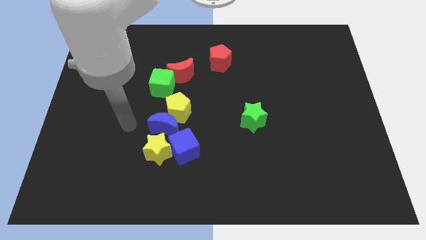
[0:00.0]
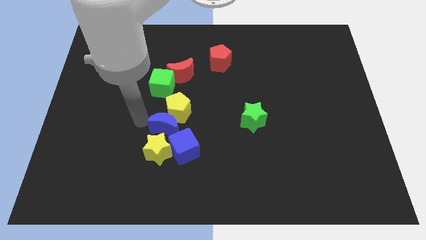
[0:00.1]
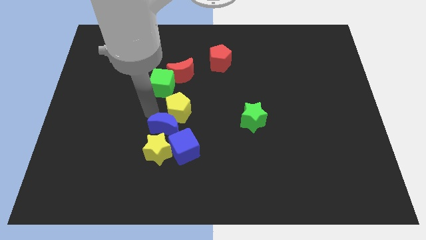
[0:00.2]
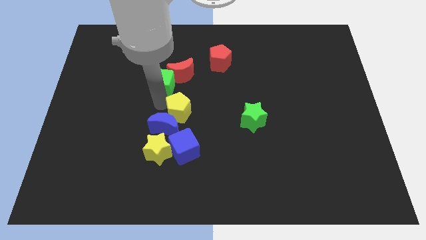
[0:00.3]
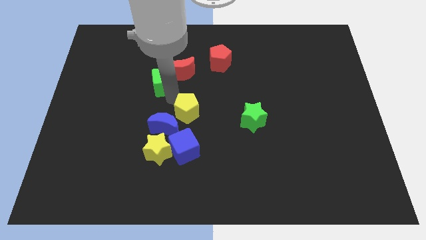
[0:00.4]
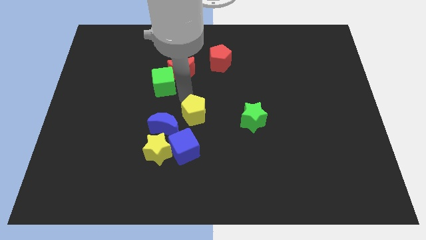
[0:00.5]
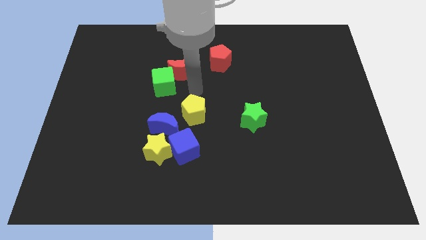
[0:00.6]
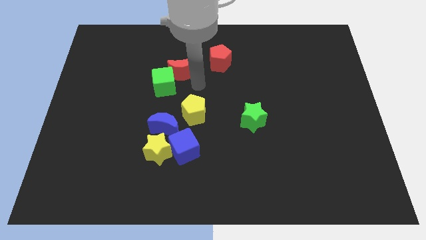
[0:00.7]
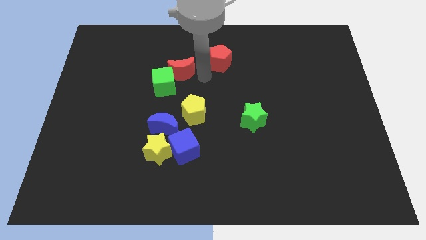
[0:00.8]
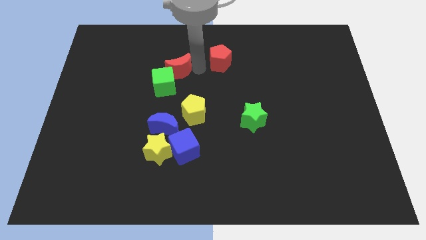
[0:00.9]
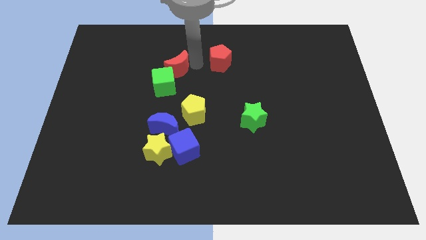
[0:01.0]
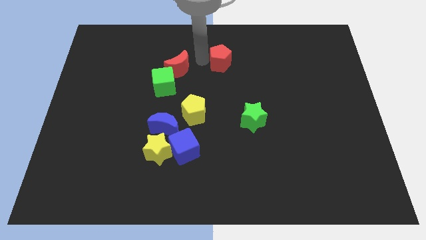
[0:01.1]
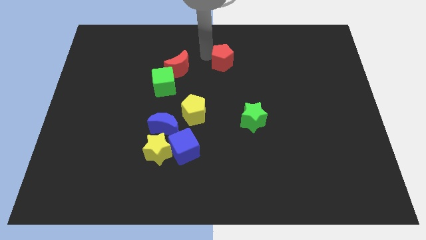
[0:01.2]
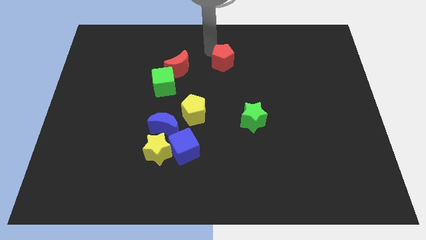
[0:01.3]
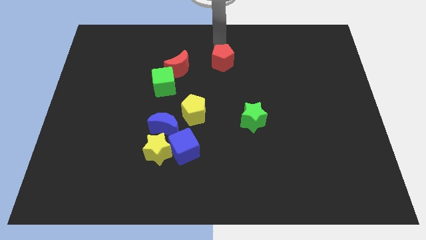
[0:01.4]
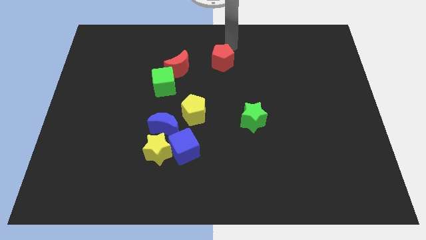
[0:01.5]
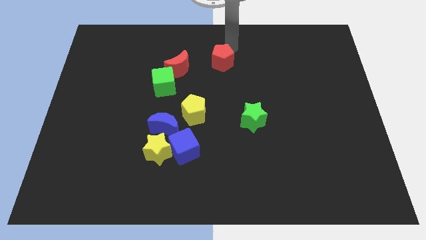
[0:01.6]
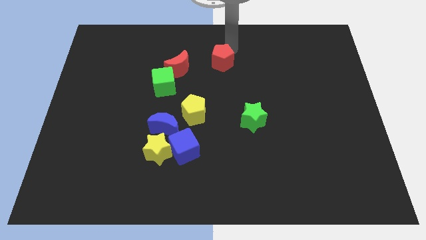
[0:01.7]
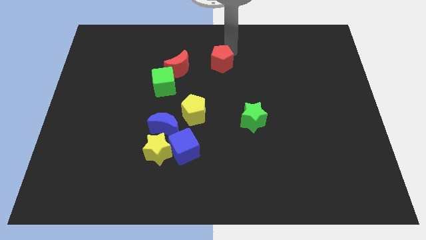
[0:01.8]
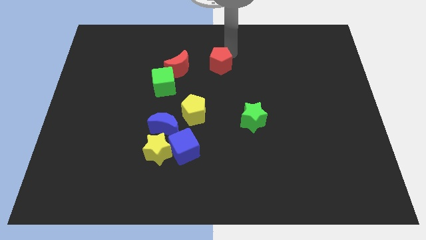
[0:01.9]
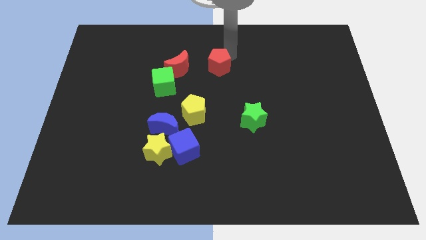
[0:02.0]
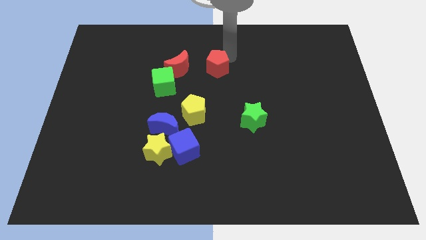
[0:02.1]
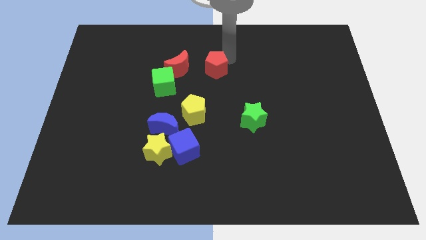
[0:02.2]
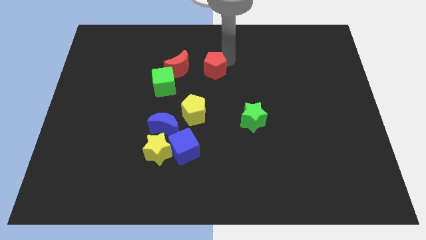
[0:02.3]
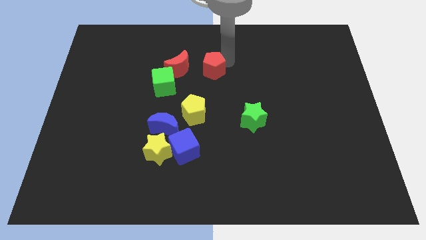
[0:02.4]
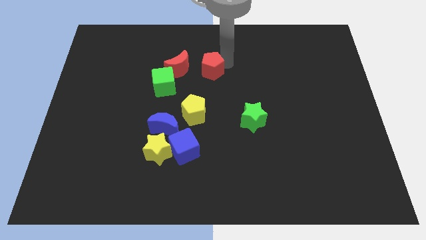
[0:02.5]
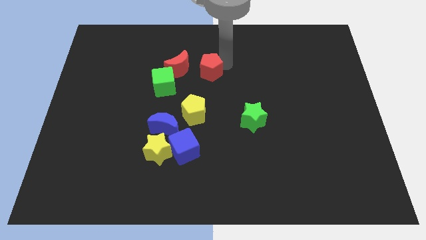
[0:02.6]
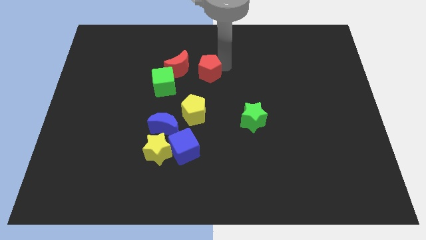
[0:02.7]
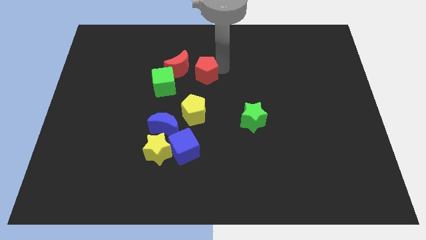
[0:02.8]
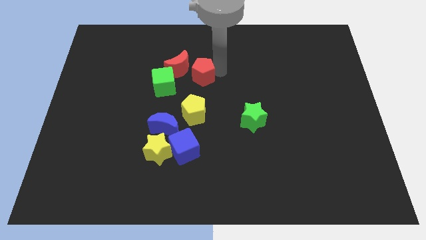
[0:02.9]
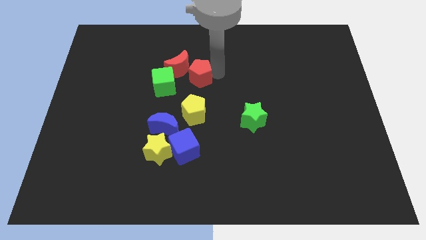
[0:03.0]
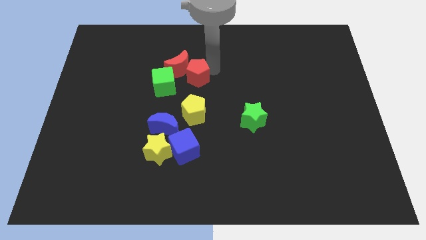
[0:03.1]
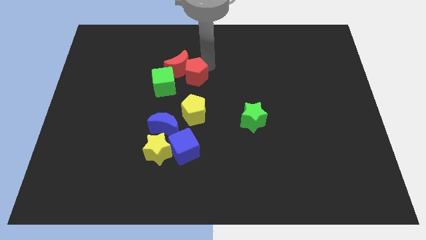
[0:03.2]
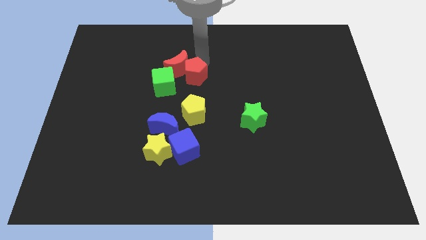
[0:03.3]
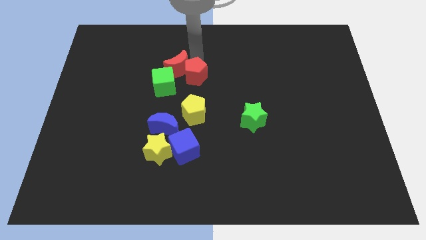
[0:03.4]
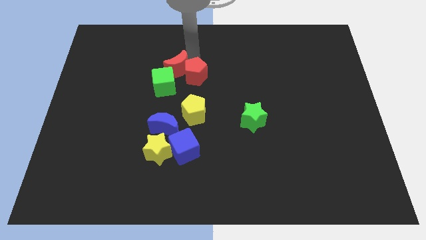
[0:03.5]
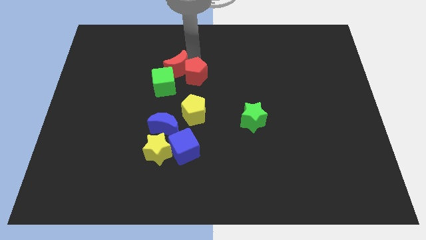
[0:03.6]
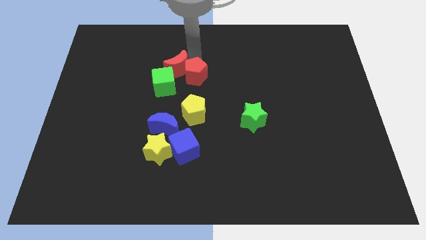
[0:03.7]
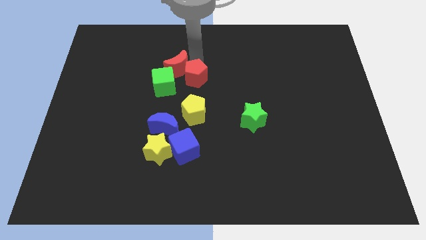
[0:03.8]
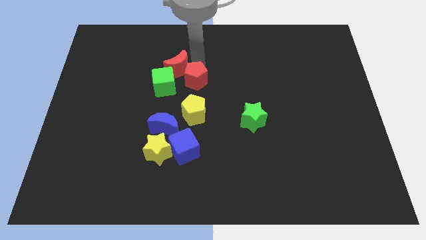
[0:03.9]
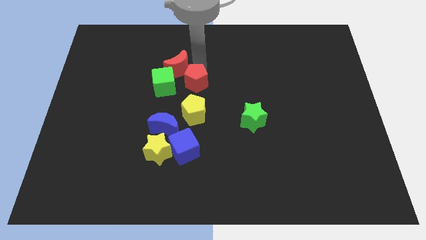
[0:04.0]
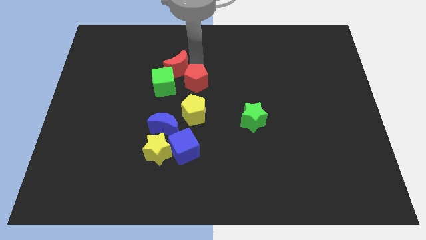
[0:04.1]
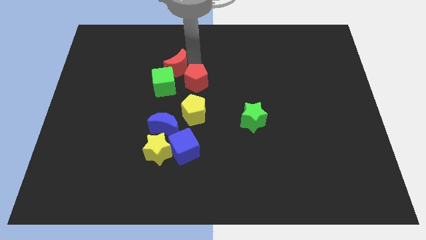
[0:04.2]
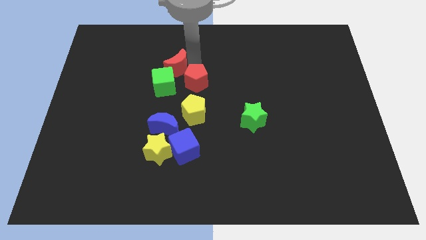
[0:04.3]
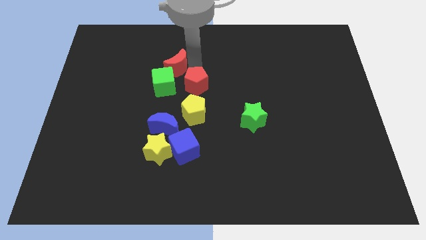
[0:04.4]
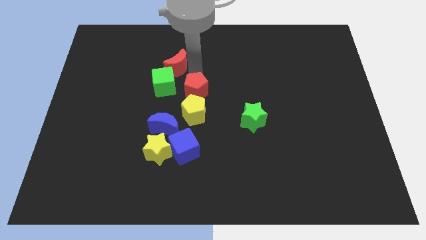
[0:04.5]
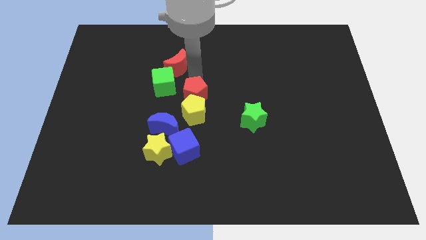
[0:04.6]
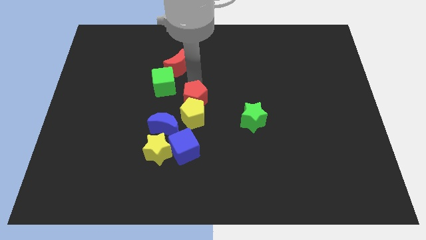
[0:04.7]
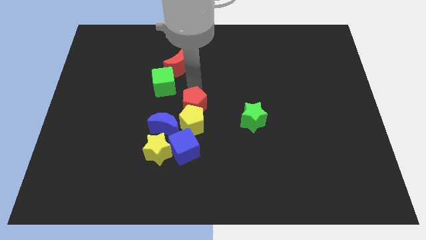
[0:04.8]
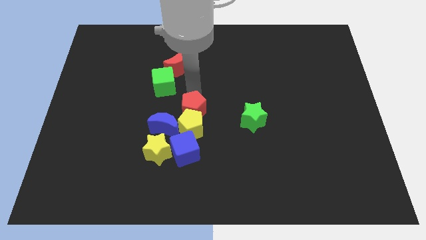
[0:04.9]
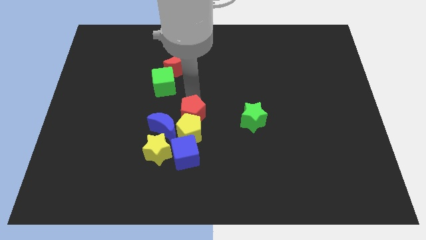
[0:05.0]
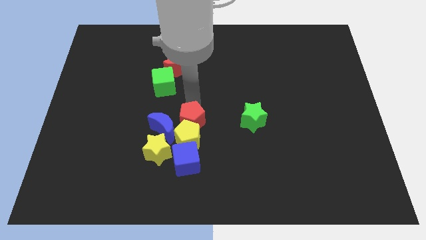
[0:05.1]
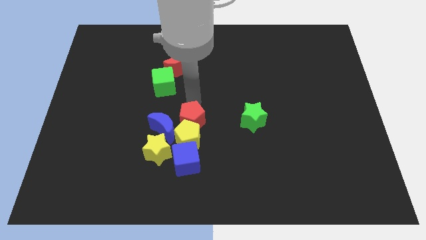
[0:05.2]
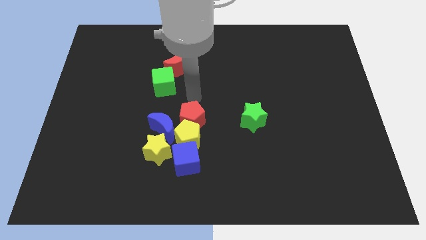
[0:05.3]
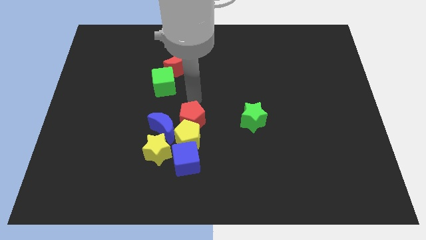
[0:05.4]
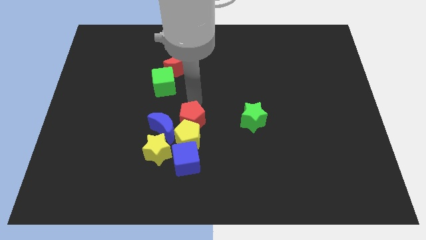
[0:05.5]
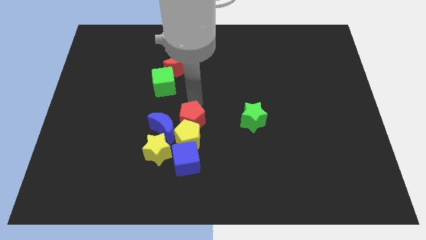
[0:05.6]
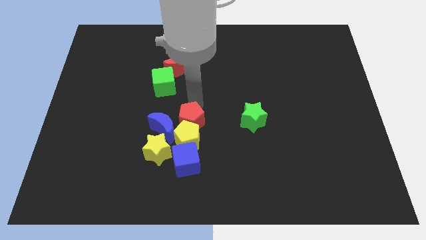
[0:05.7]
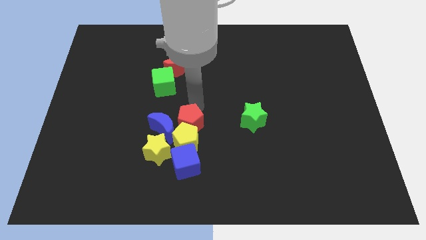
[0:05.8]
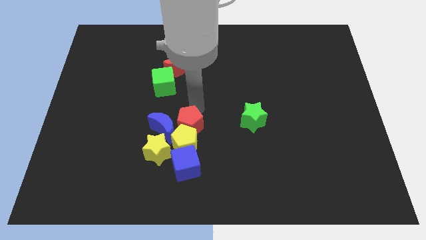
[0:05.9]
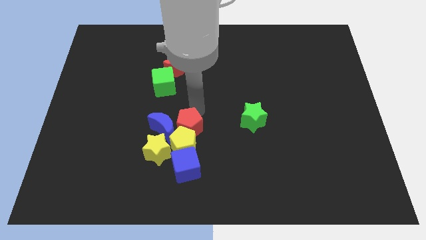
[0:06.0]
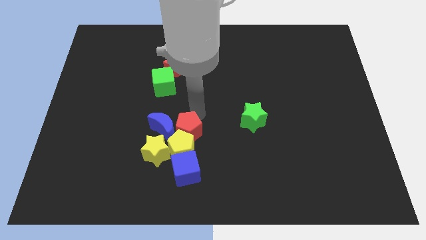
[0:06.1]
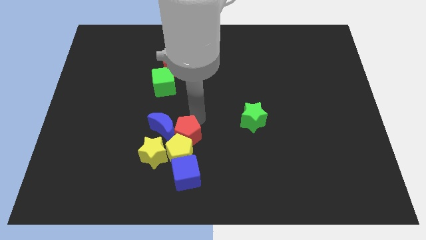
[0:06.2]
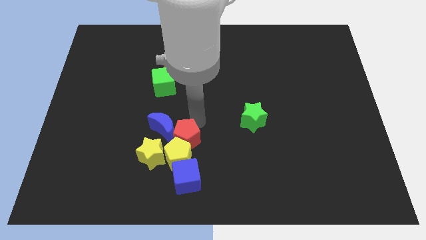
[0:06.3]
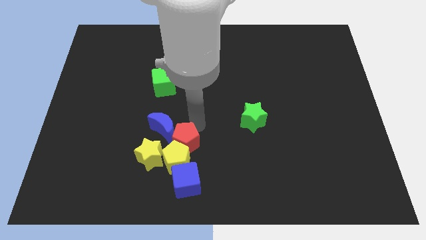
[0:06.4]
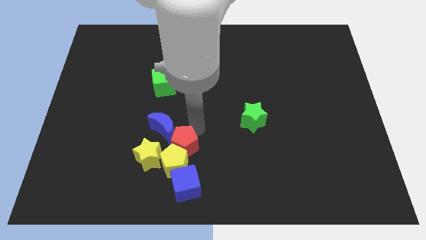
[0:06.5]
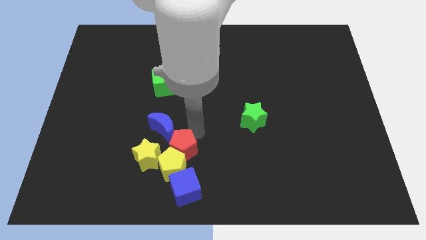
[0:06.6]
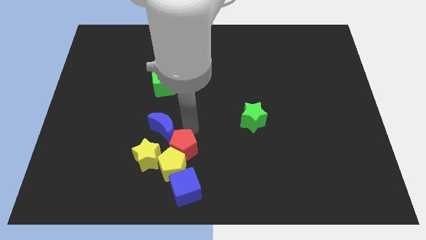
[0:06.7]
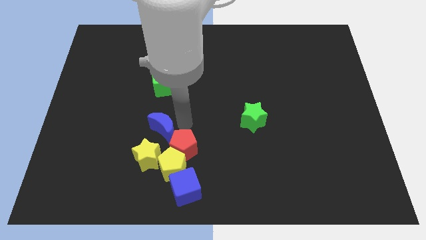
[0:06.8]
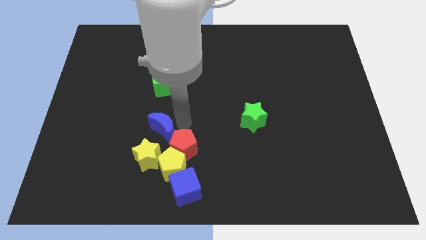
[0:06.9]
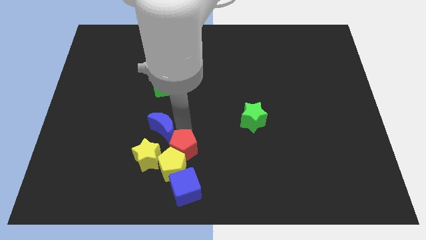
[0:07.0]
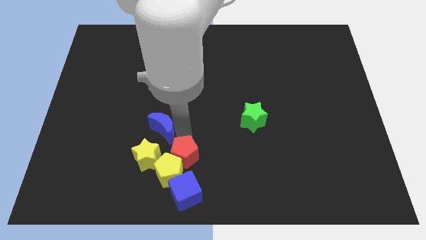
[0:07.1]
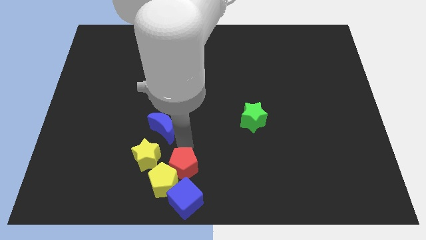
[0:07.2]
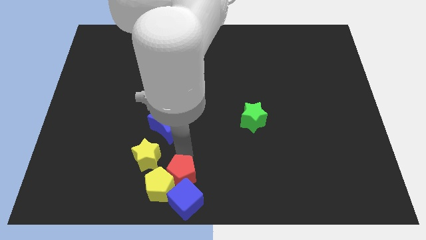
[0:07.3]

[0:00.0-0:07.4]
put the red pentagon towards the blue cube
